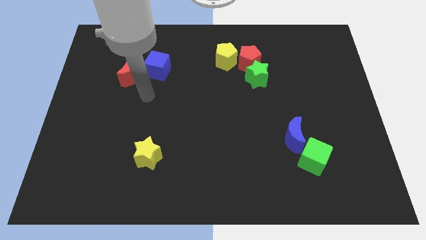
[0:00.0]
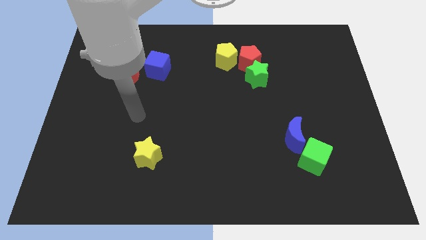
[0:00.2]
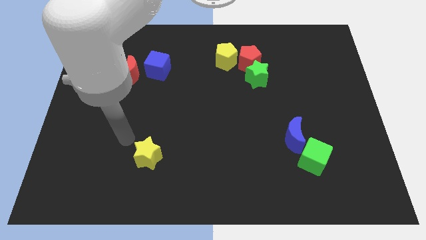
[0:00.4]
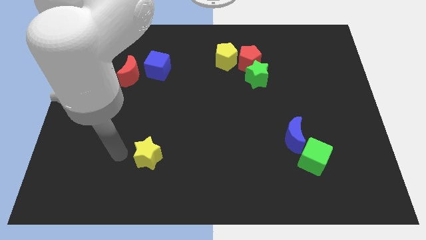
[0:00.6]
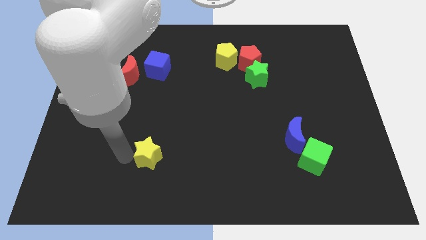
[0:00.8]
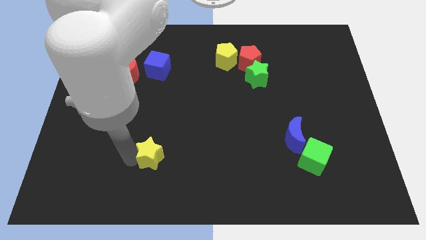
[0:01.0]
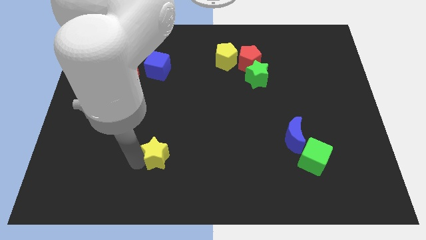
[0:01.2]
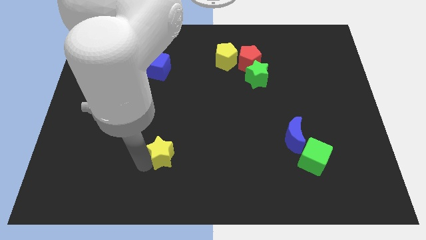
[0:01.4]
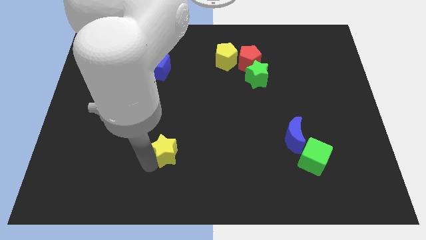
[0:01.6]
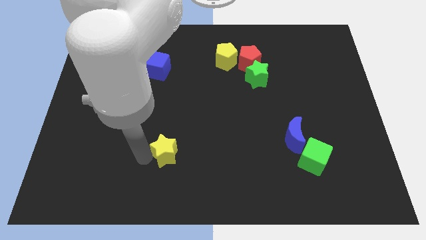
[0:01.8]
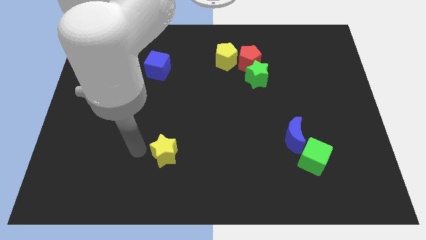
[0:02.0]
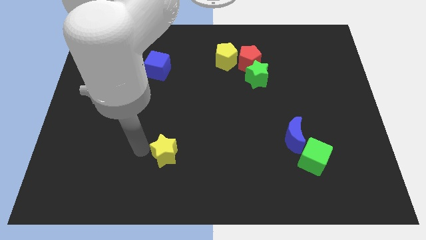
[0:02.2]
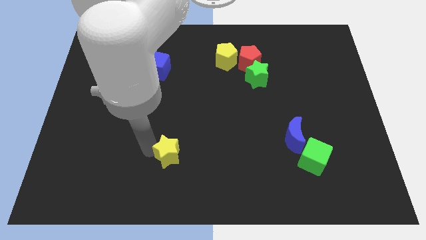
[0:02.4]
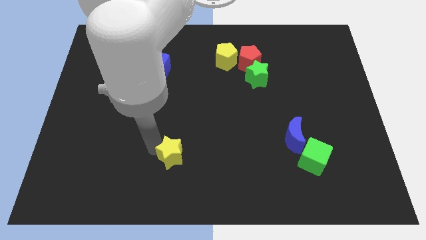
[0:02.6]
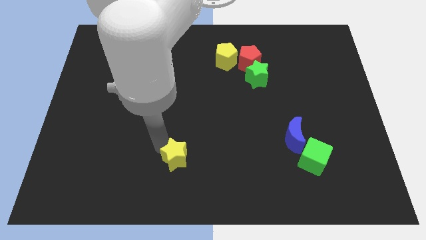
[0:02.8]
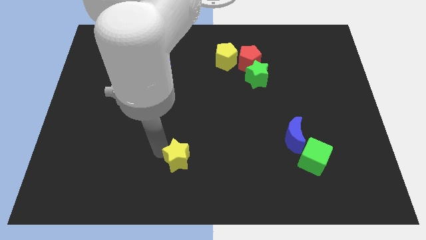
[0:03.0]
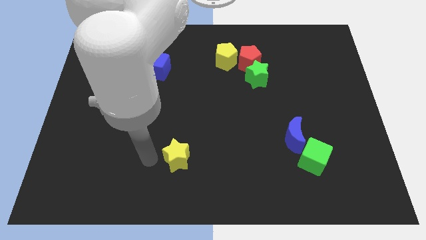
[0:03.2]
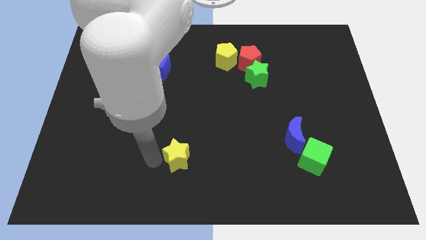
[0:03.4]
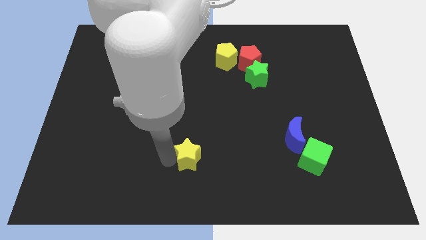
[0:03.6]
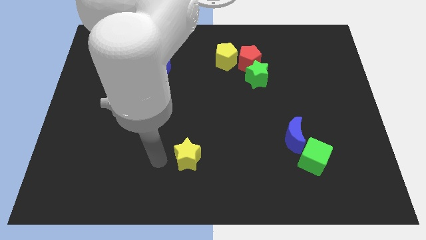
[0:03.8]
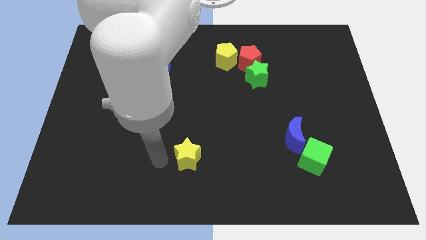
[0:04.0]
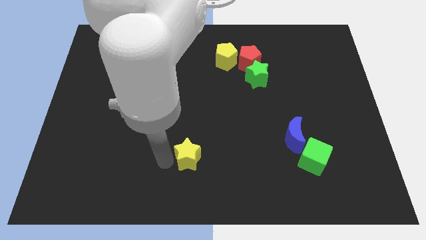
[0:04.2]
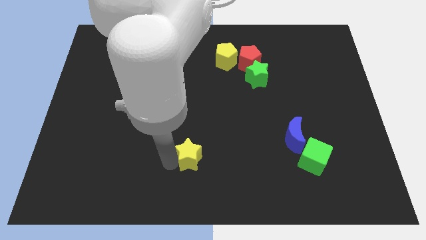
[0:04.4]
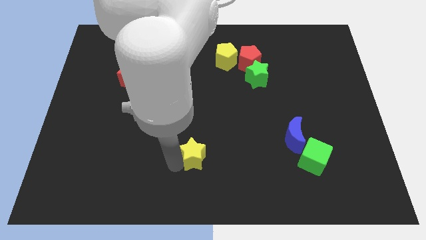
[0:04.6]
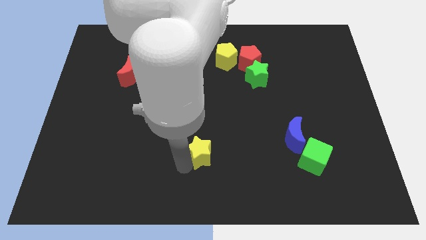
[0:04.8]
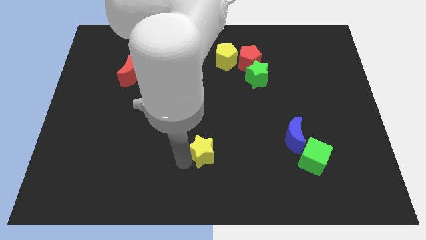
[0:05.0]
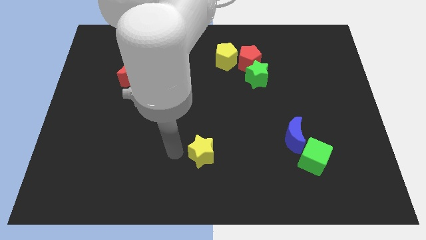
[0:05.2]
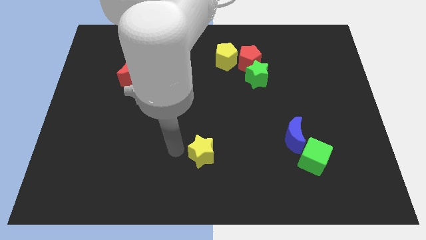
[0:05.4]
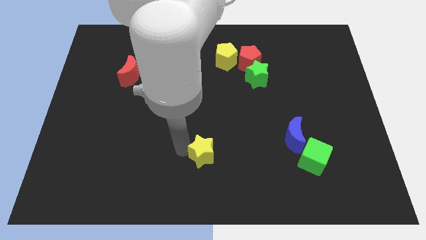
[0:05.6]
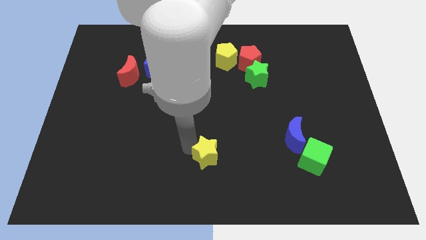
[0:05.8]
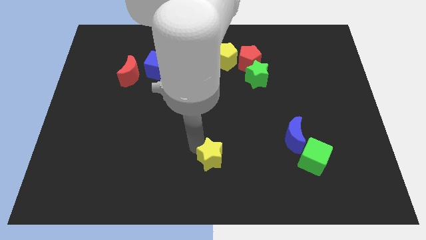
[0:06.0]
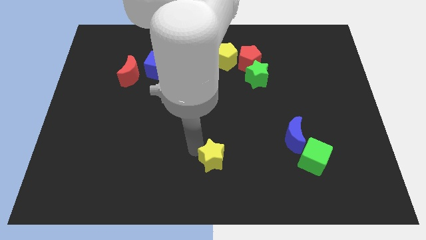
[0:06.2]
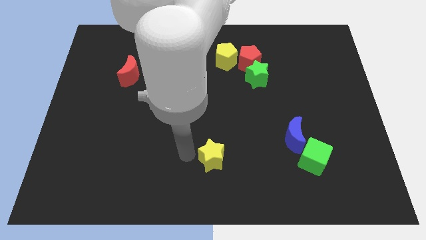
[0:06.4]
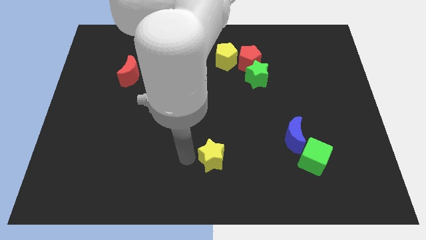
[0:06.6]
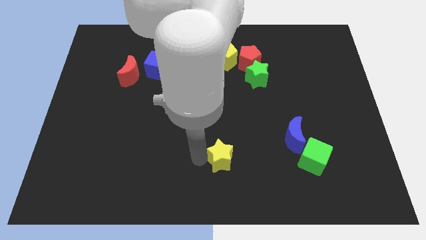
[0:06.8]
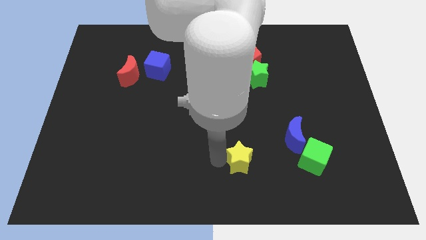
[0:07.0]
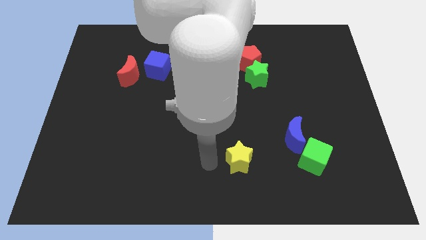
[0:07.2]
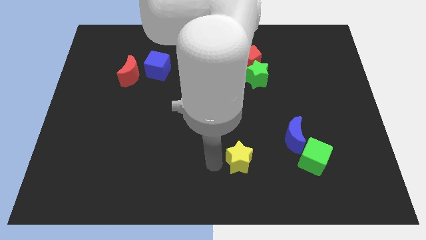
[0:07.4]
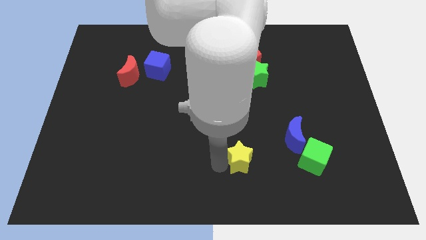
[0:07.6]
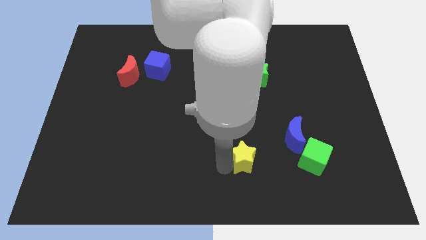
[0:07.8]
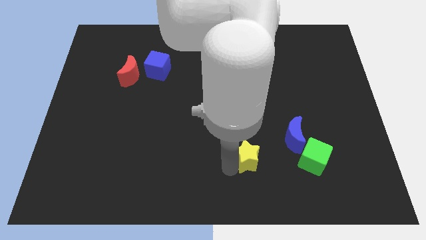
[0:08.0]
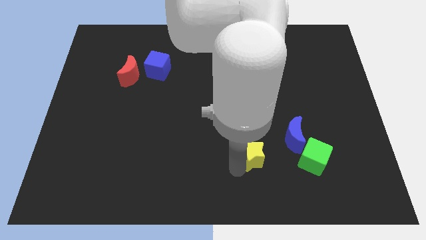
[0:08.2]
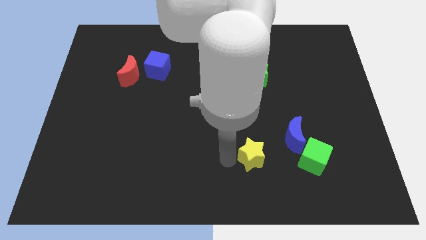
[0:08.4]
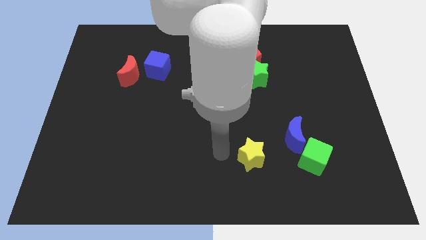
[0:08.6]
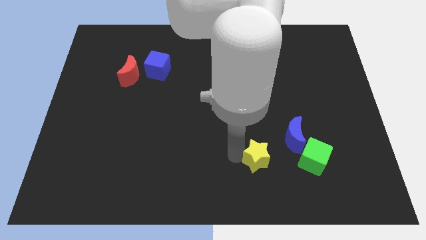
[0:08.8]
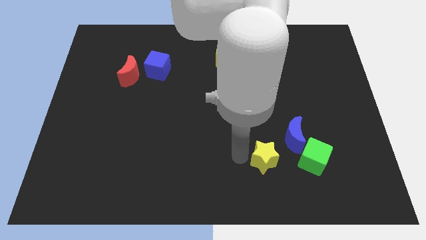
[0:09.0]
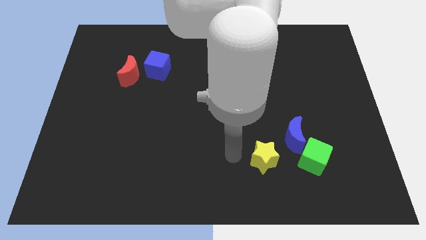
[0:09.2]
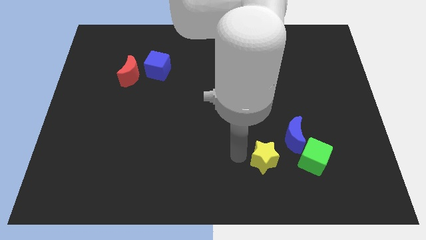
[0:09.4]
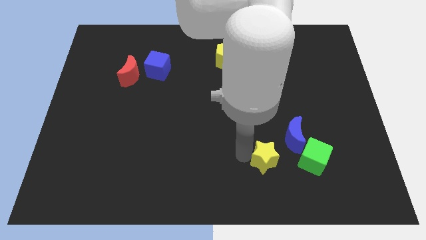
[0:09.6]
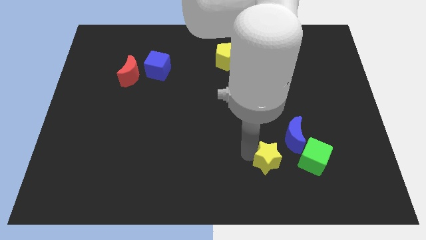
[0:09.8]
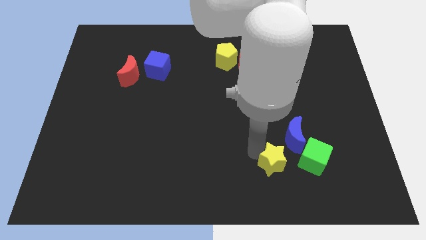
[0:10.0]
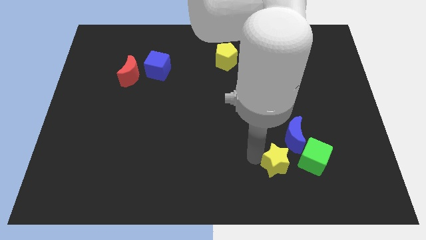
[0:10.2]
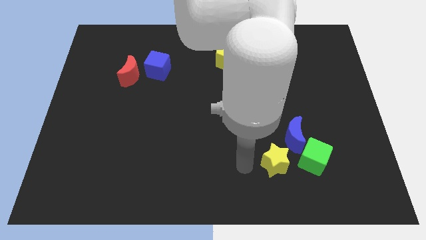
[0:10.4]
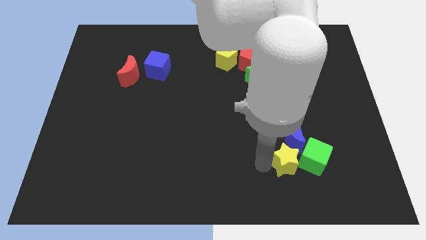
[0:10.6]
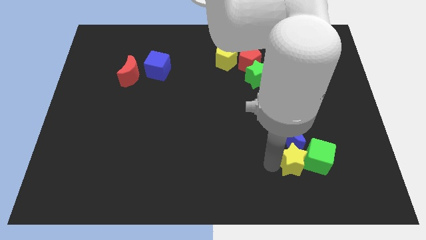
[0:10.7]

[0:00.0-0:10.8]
move the yellow star to the green cube

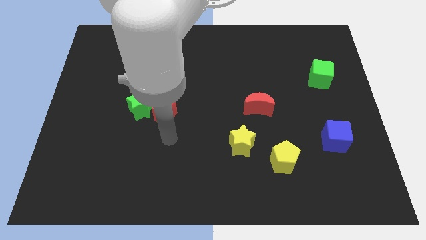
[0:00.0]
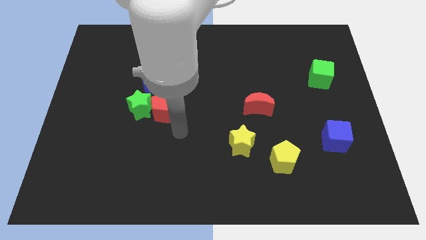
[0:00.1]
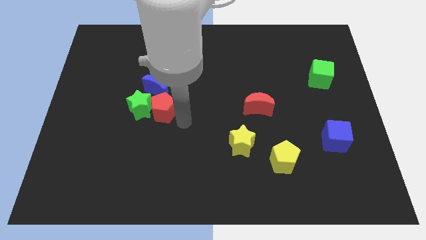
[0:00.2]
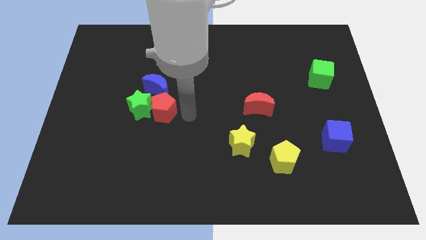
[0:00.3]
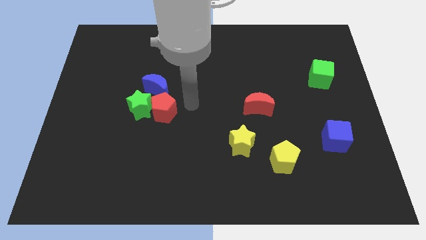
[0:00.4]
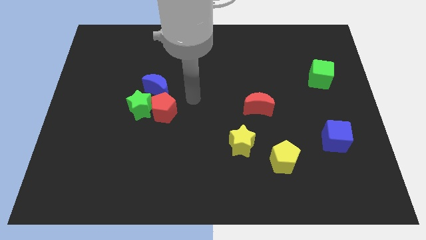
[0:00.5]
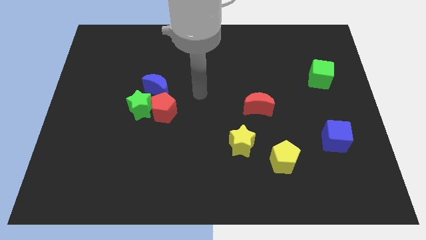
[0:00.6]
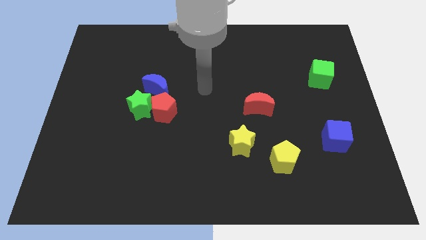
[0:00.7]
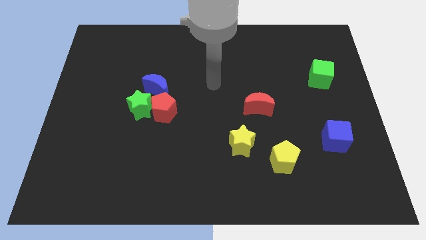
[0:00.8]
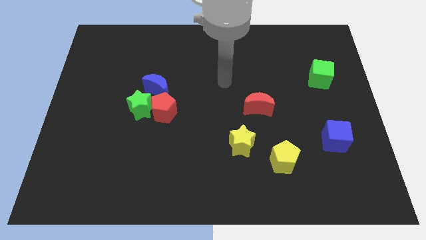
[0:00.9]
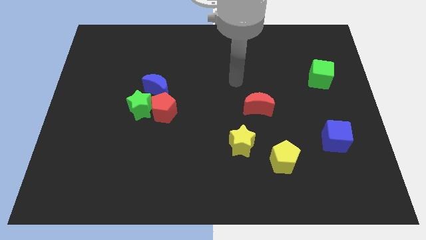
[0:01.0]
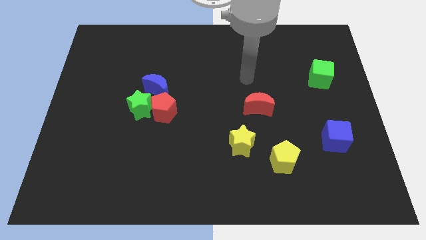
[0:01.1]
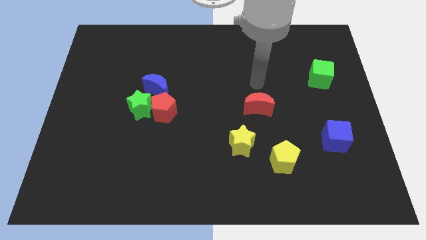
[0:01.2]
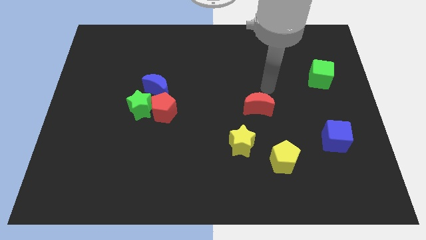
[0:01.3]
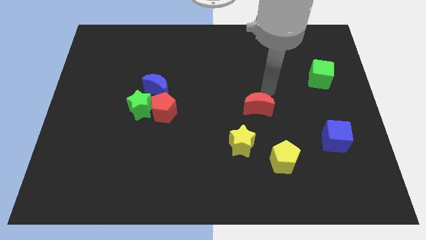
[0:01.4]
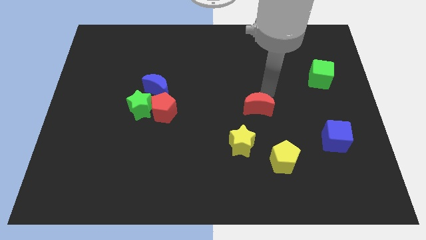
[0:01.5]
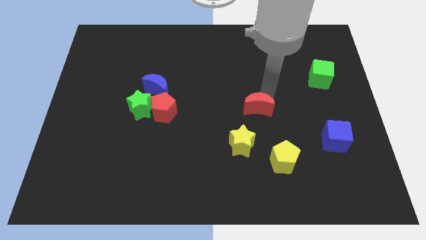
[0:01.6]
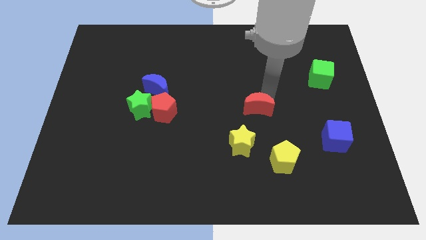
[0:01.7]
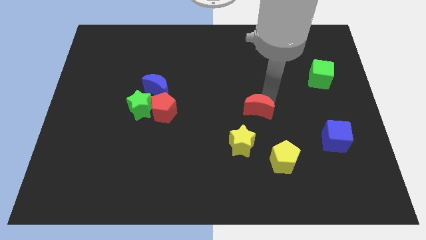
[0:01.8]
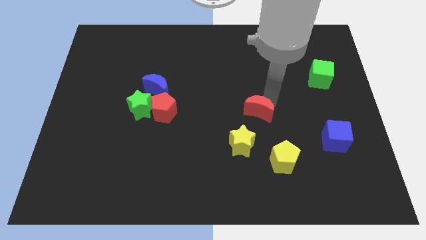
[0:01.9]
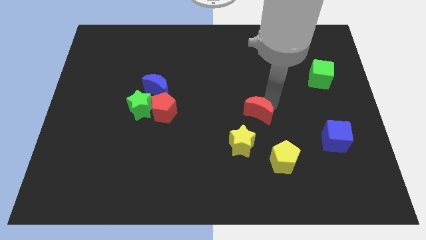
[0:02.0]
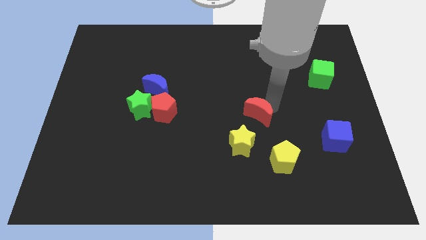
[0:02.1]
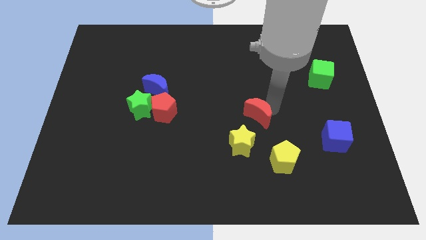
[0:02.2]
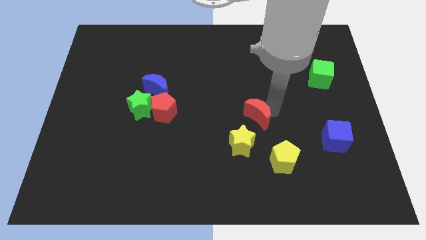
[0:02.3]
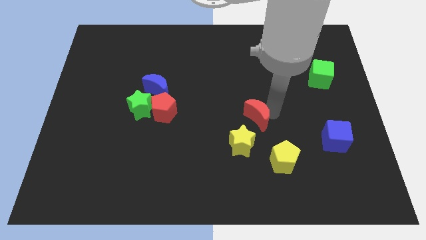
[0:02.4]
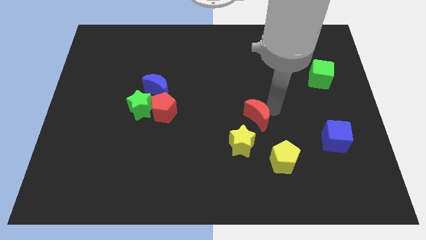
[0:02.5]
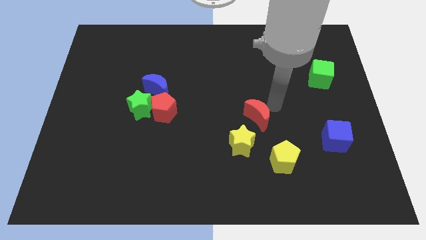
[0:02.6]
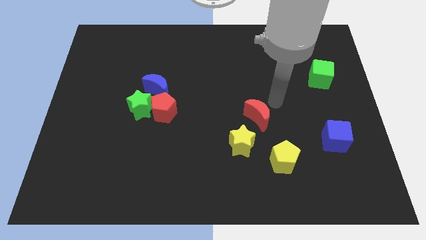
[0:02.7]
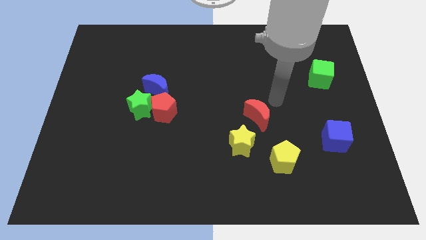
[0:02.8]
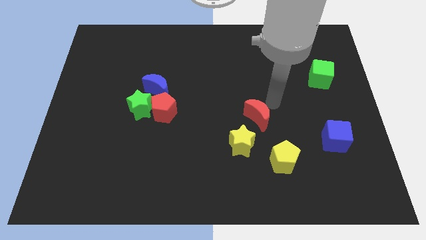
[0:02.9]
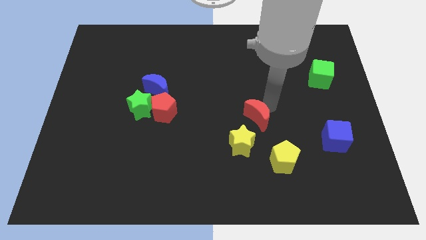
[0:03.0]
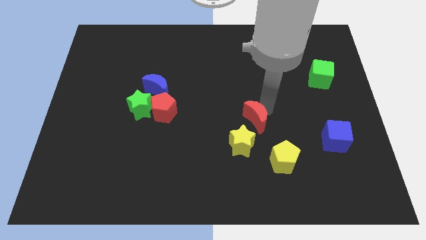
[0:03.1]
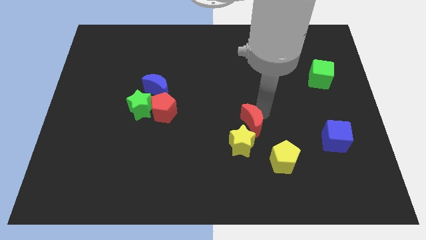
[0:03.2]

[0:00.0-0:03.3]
slide the red moon towards the yellow star
